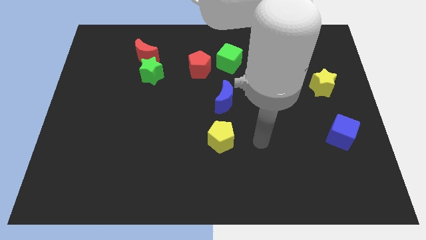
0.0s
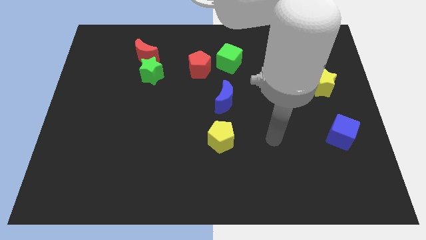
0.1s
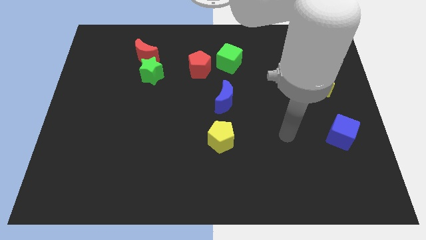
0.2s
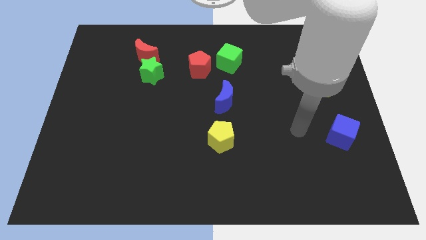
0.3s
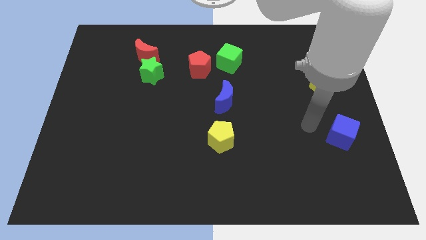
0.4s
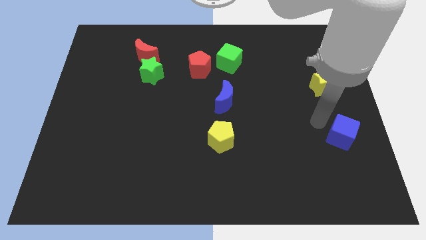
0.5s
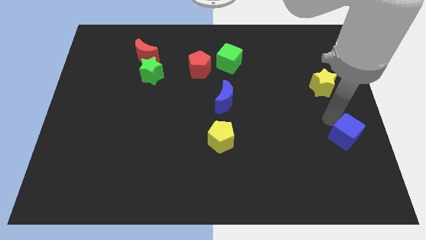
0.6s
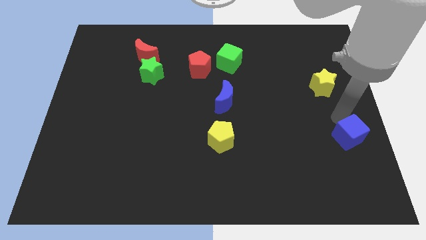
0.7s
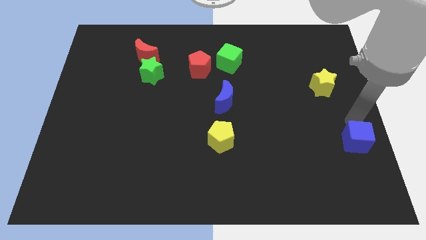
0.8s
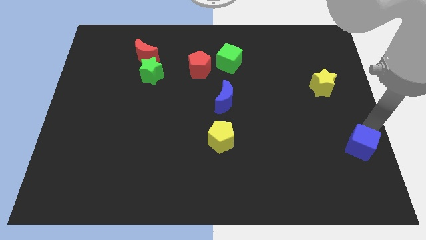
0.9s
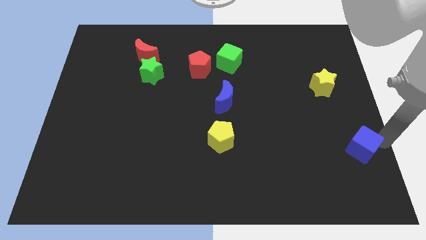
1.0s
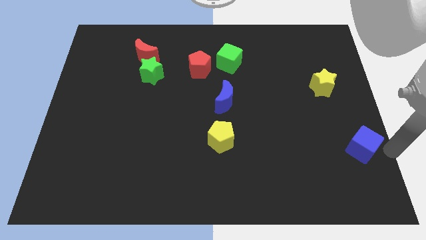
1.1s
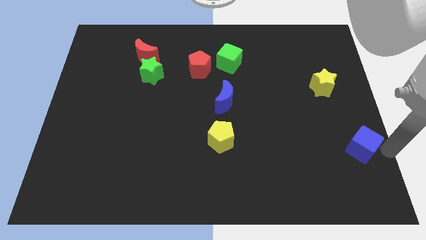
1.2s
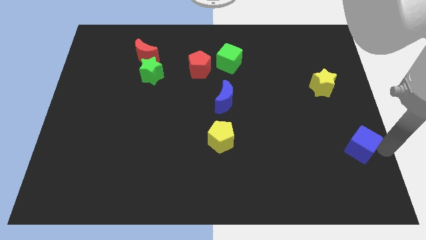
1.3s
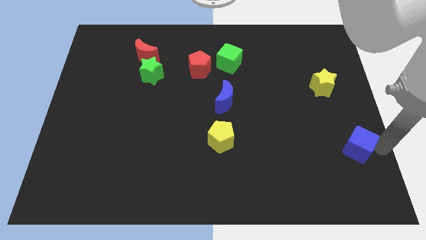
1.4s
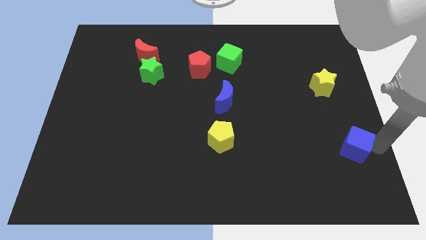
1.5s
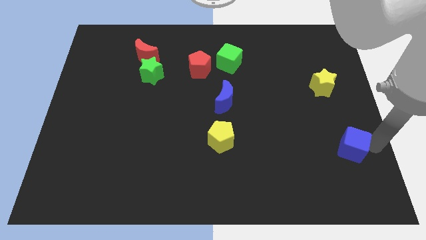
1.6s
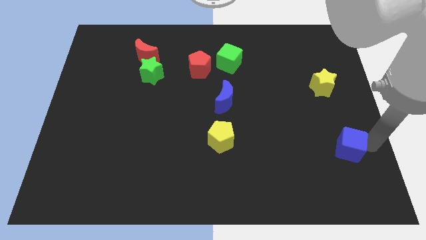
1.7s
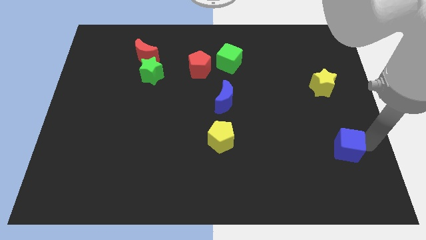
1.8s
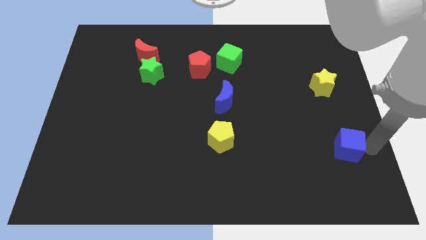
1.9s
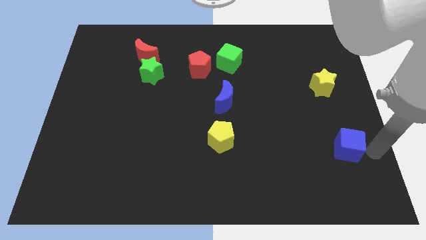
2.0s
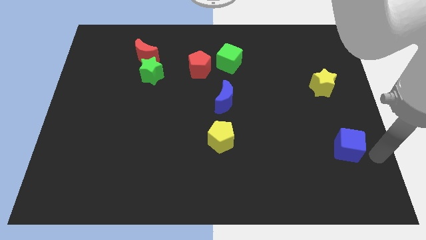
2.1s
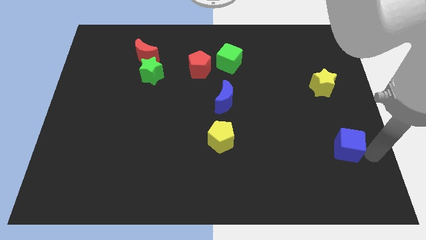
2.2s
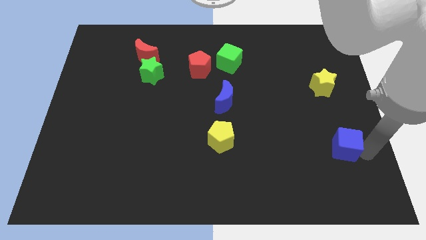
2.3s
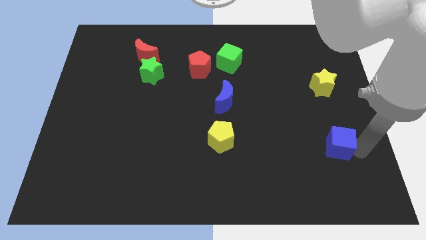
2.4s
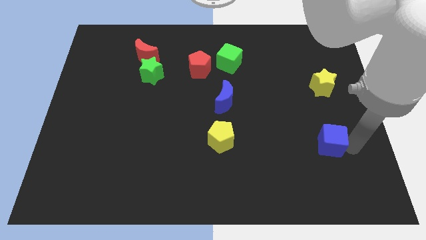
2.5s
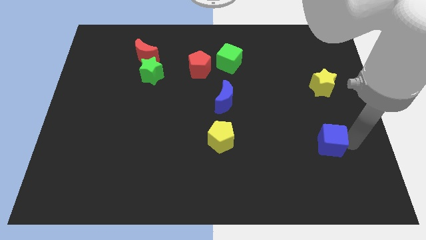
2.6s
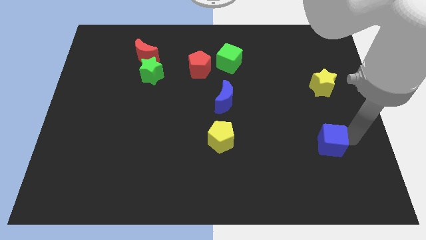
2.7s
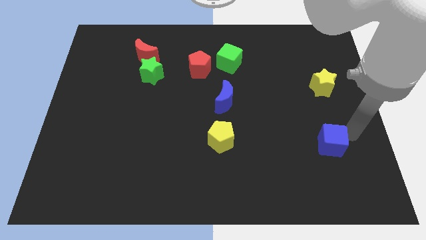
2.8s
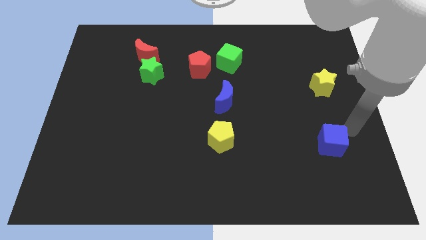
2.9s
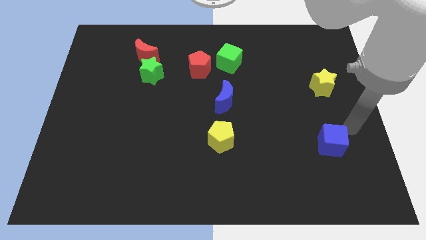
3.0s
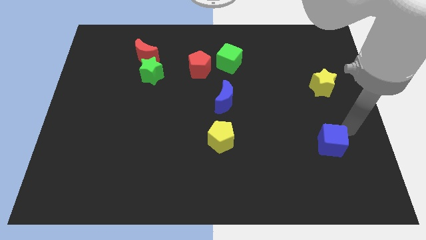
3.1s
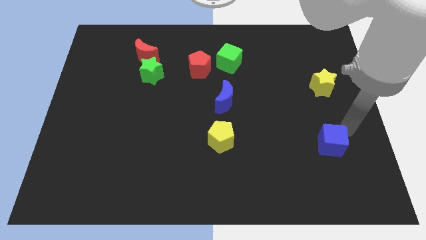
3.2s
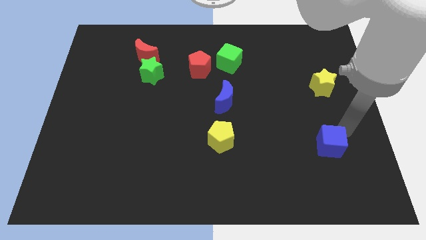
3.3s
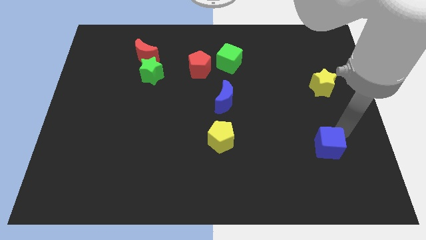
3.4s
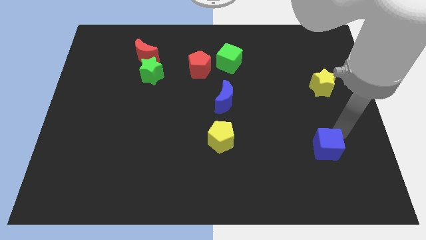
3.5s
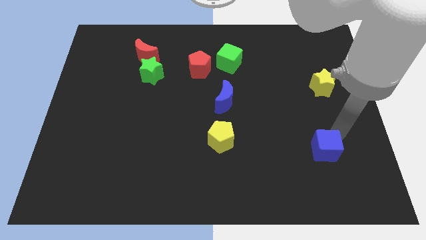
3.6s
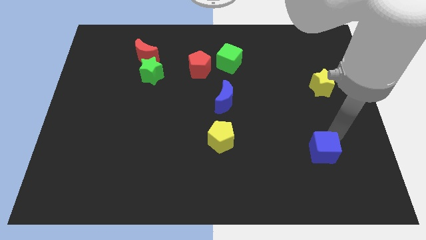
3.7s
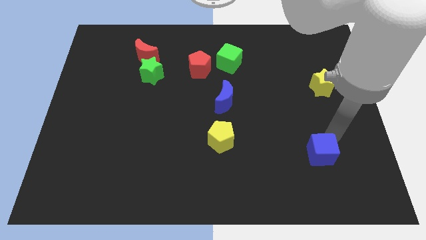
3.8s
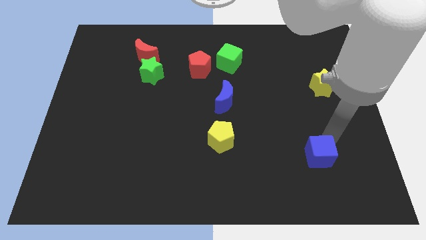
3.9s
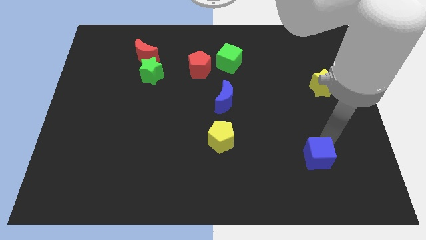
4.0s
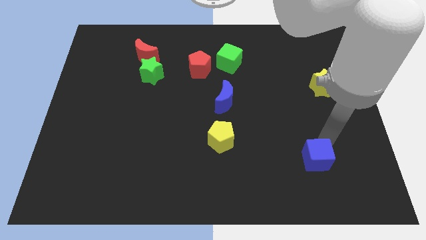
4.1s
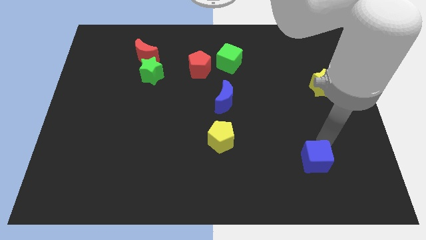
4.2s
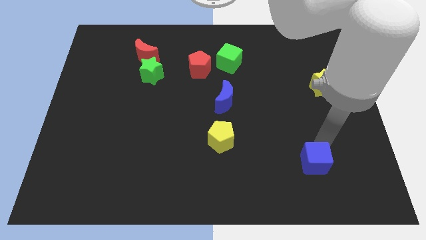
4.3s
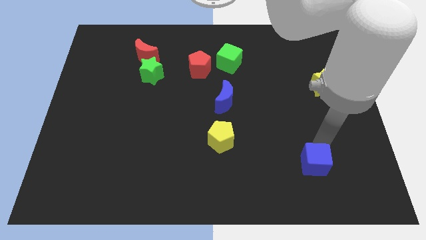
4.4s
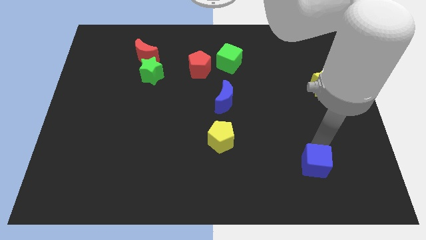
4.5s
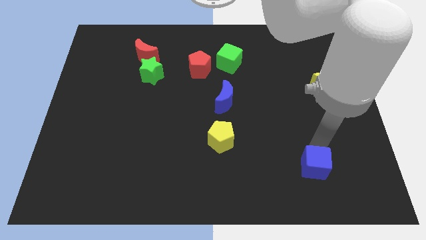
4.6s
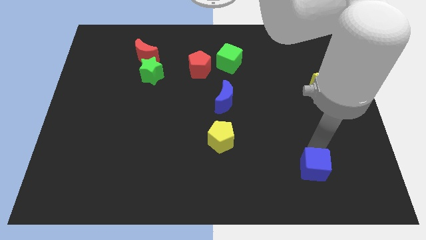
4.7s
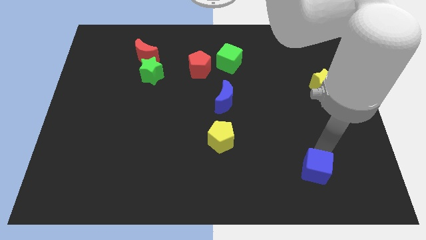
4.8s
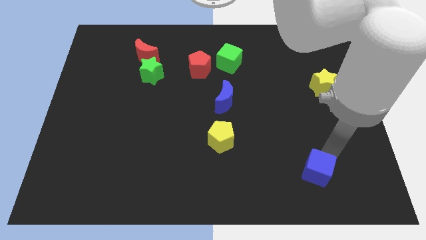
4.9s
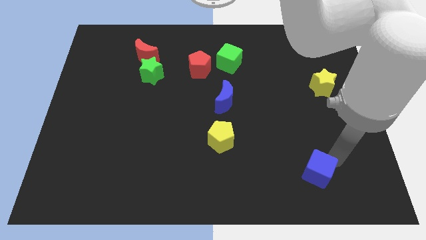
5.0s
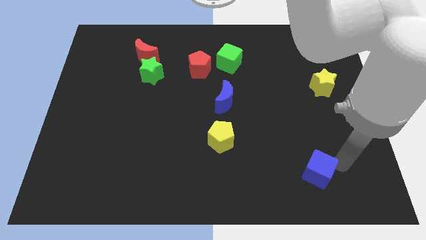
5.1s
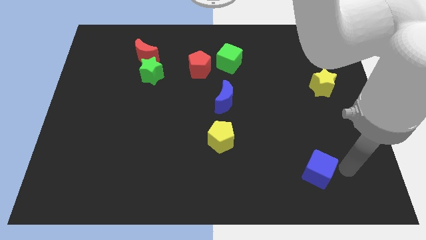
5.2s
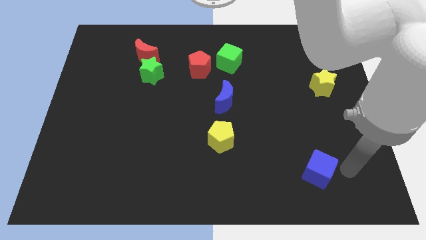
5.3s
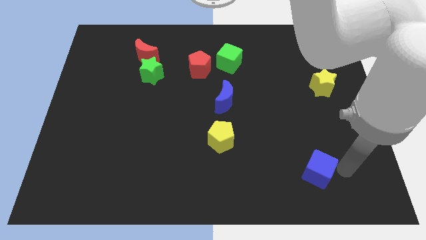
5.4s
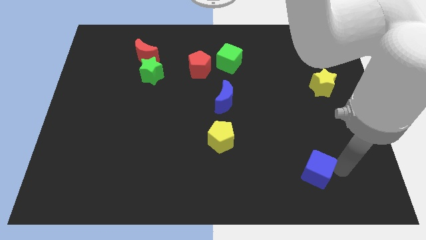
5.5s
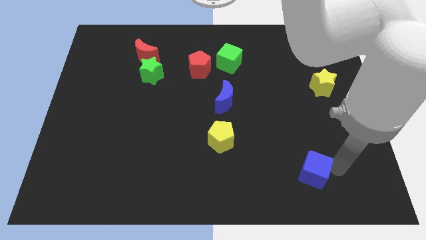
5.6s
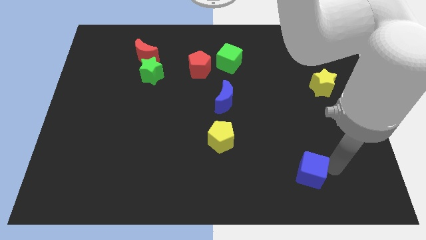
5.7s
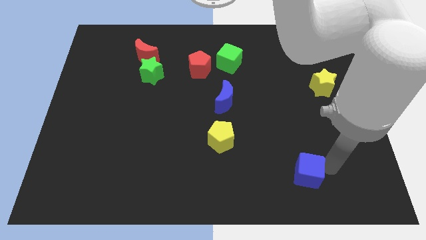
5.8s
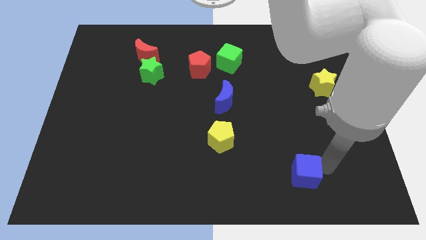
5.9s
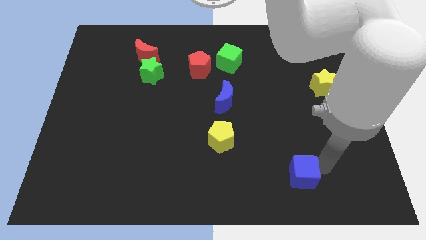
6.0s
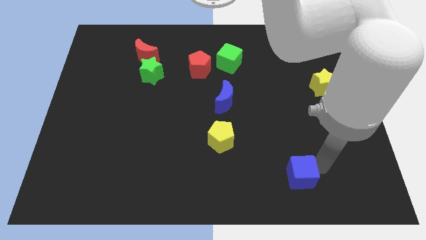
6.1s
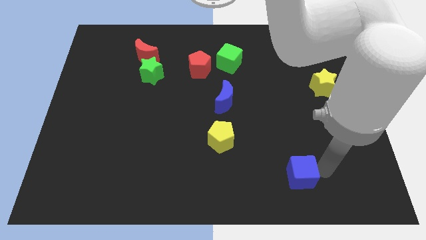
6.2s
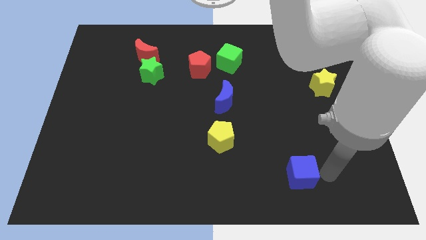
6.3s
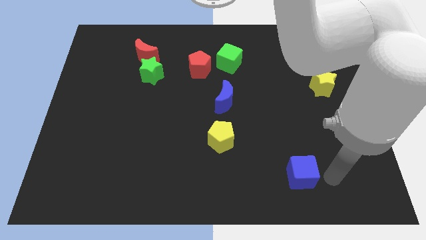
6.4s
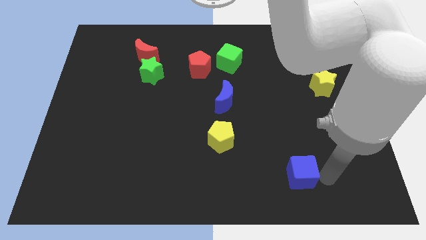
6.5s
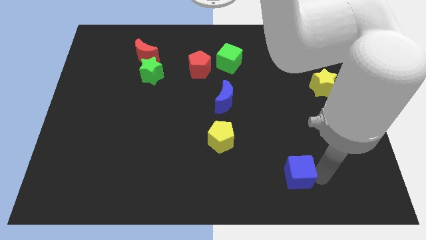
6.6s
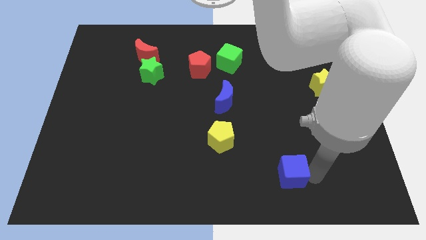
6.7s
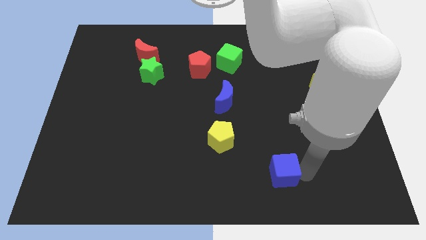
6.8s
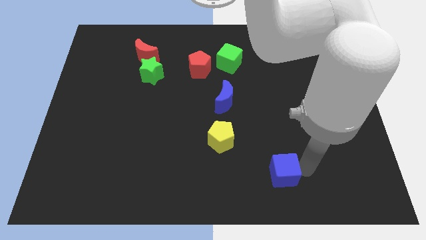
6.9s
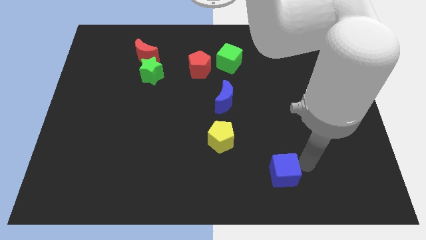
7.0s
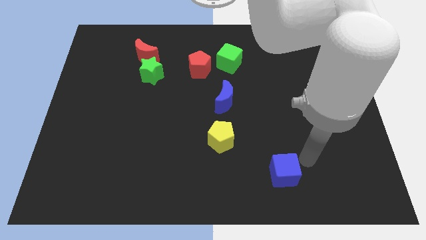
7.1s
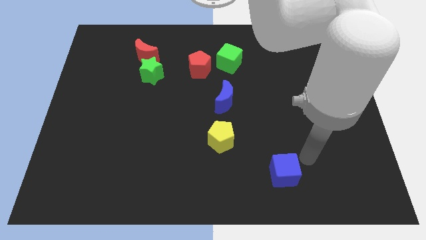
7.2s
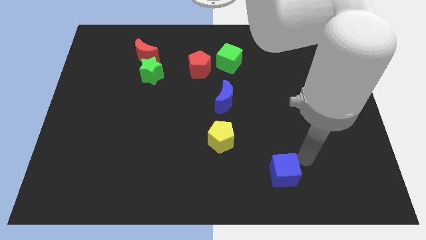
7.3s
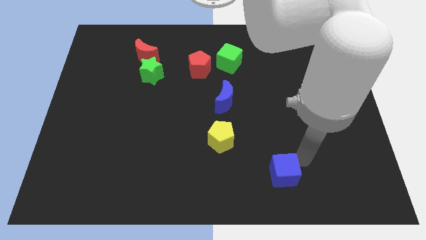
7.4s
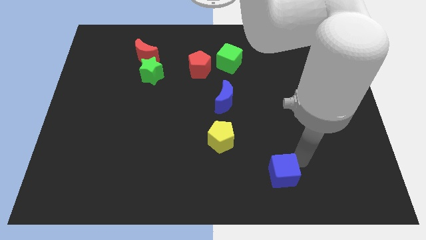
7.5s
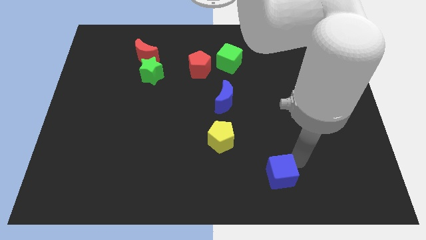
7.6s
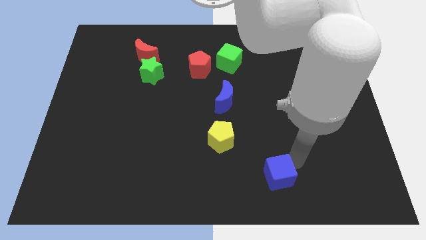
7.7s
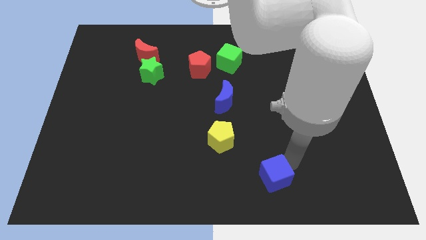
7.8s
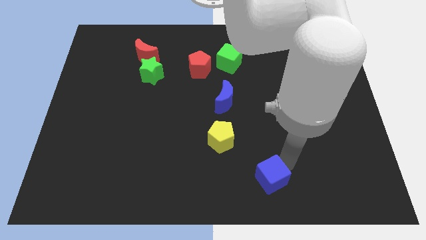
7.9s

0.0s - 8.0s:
push the blue cube to the bottom
